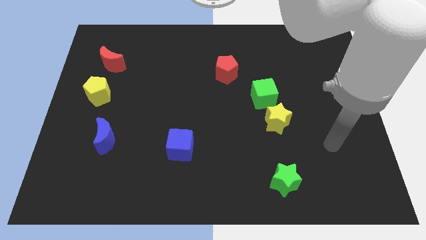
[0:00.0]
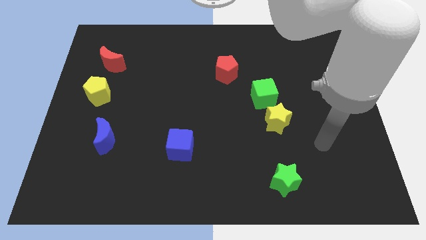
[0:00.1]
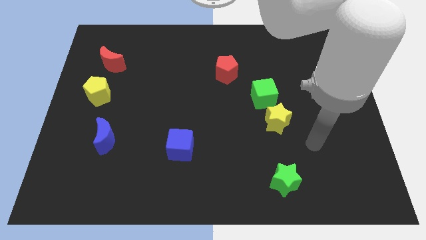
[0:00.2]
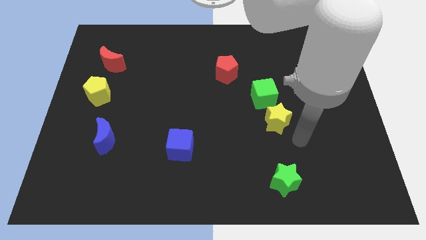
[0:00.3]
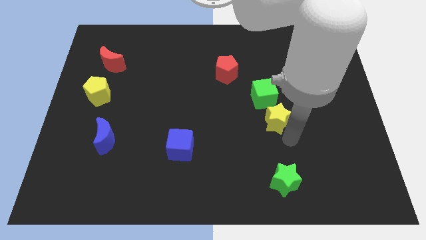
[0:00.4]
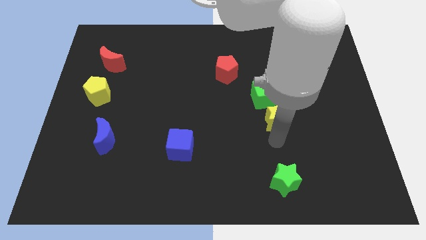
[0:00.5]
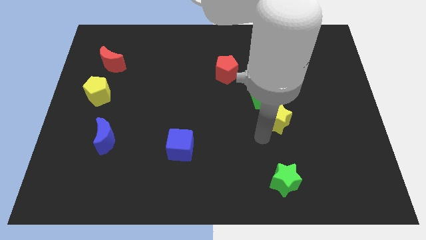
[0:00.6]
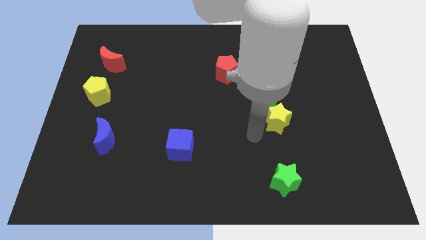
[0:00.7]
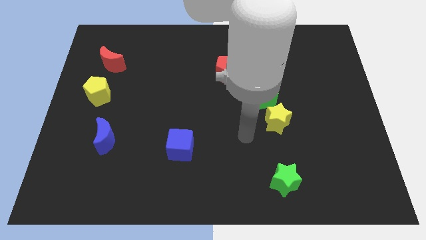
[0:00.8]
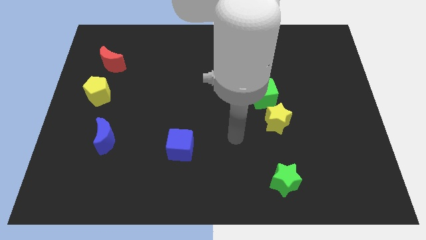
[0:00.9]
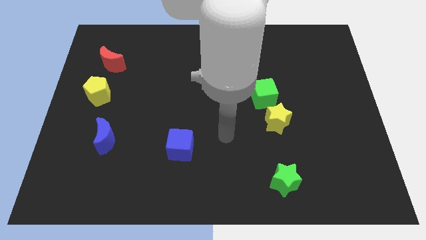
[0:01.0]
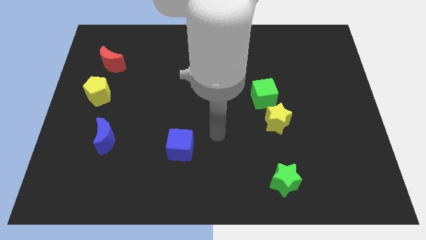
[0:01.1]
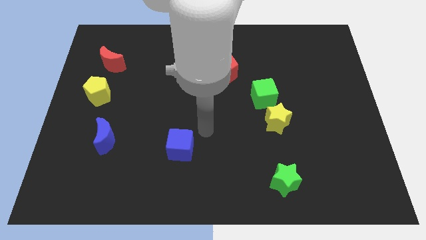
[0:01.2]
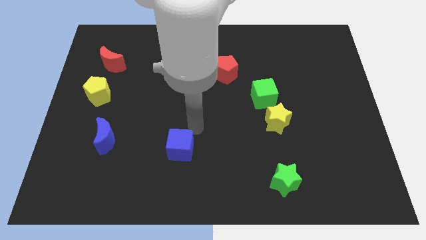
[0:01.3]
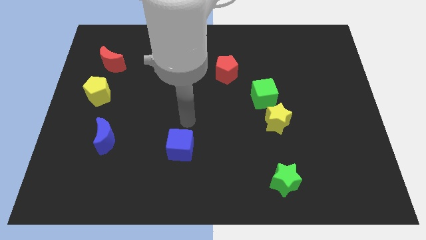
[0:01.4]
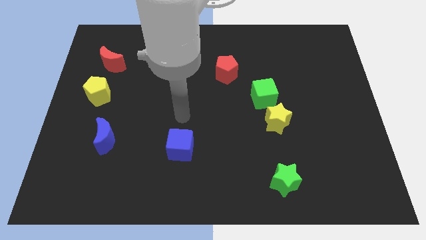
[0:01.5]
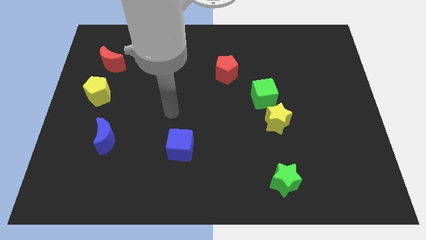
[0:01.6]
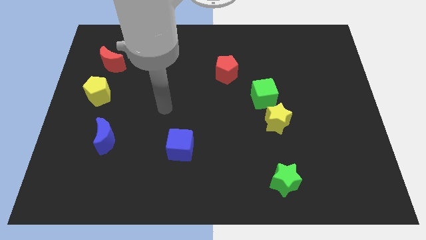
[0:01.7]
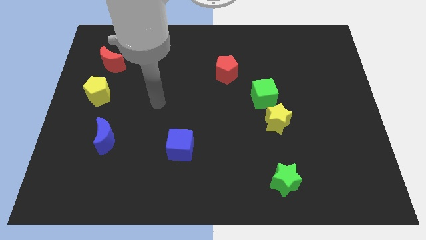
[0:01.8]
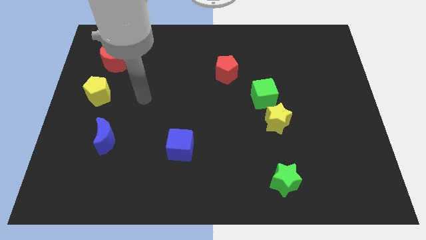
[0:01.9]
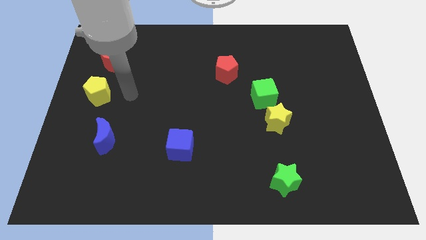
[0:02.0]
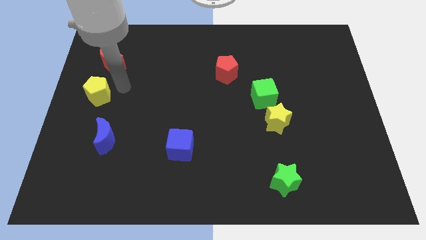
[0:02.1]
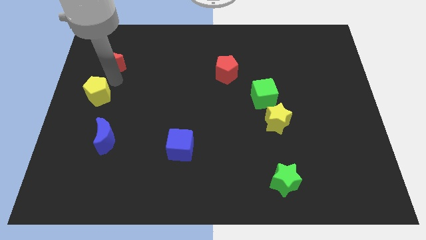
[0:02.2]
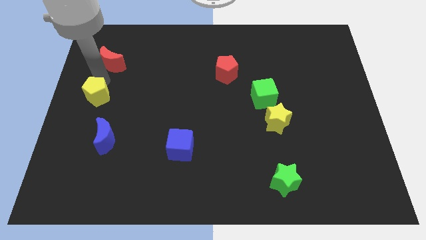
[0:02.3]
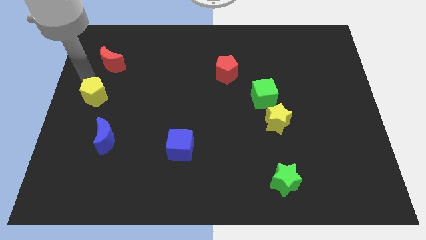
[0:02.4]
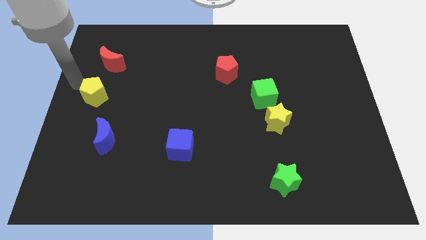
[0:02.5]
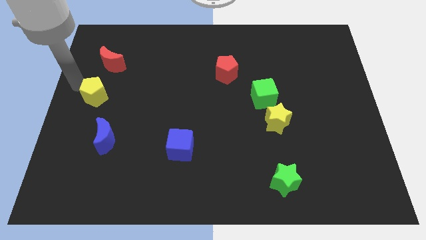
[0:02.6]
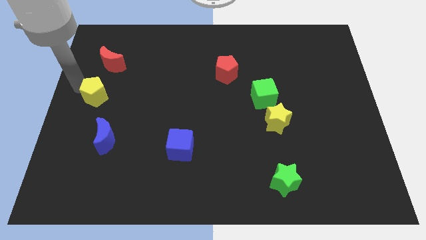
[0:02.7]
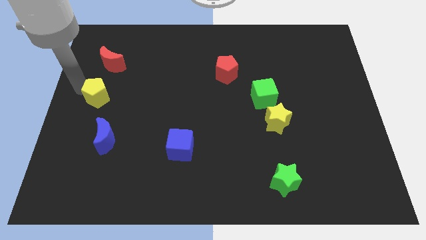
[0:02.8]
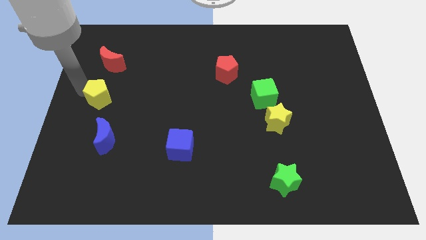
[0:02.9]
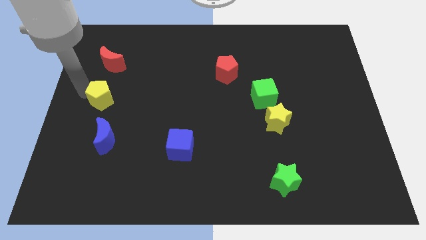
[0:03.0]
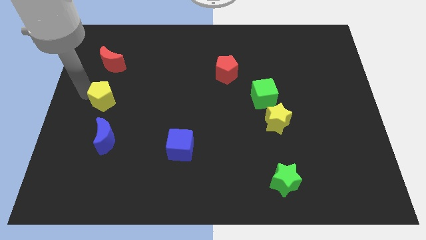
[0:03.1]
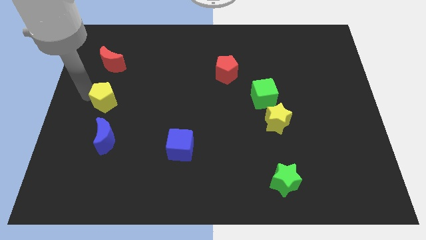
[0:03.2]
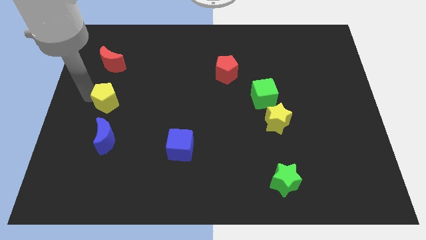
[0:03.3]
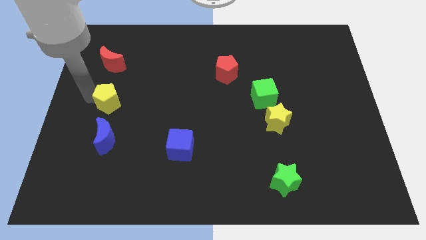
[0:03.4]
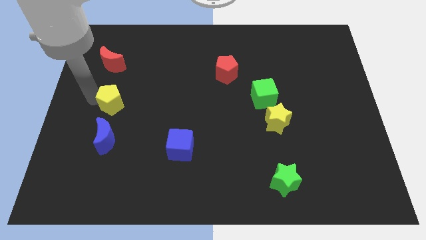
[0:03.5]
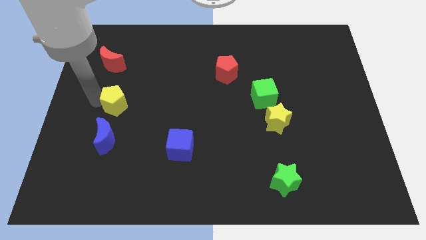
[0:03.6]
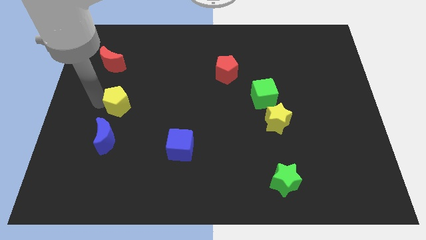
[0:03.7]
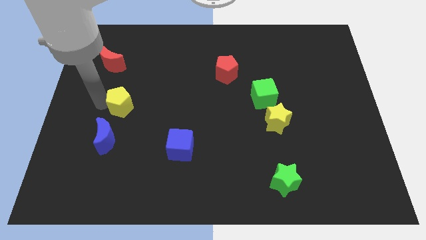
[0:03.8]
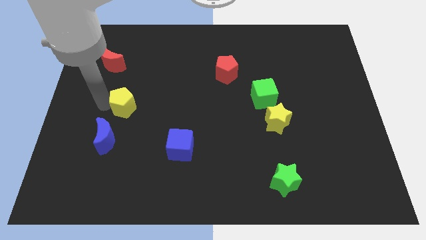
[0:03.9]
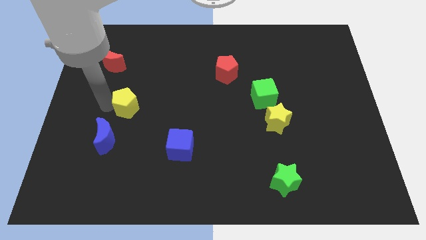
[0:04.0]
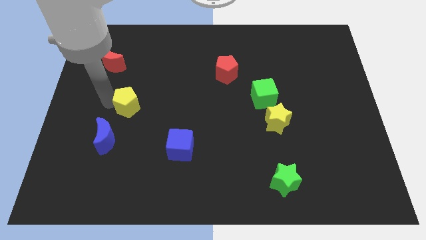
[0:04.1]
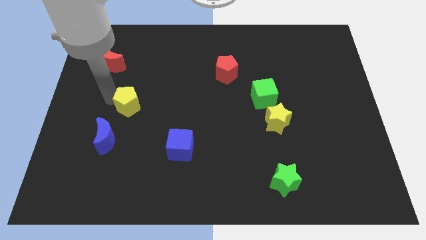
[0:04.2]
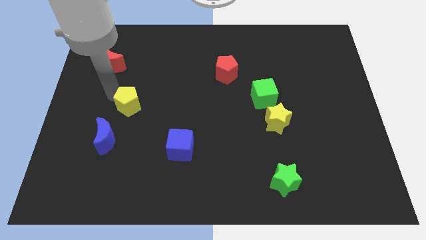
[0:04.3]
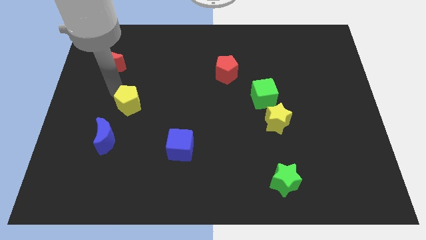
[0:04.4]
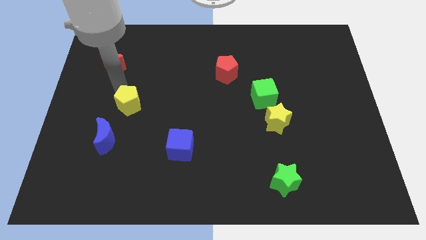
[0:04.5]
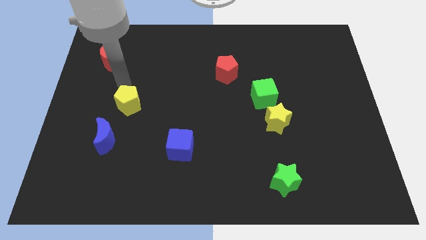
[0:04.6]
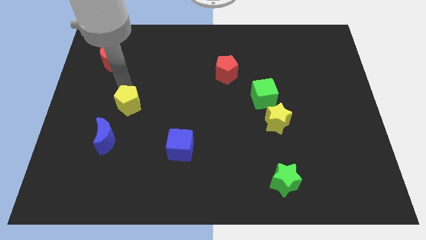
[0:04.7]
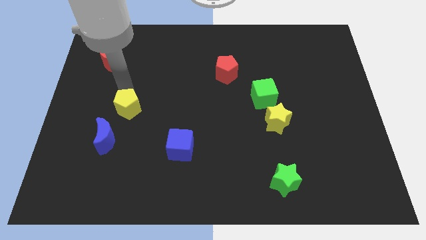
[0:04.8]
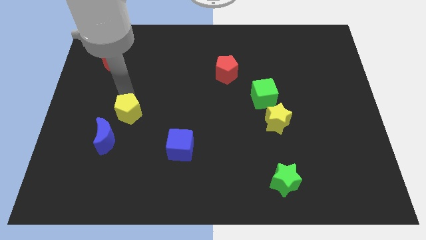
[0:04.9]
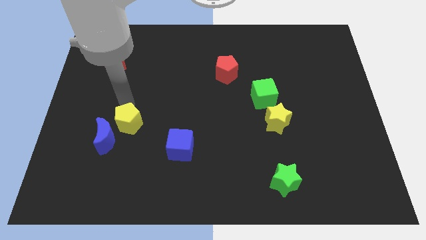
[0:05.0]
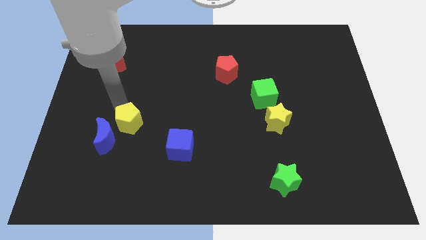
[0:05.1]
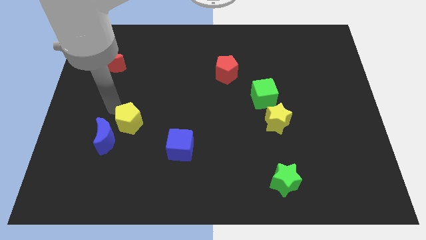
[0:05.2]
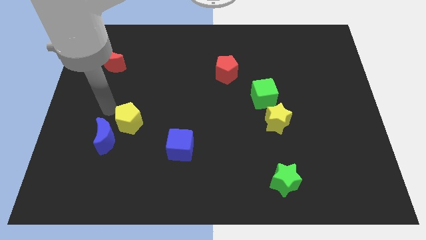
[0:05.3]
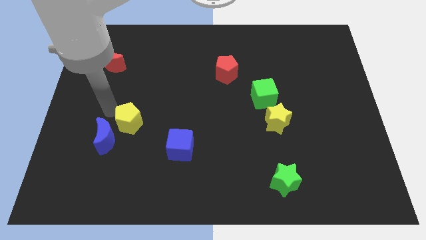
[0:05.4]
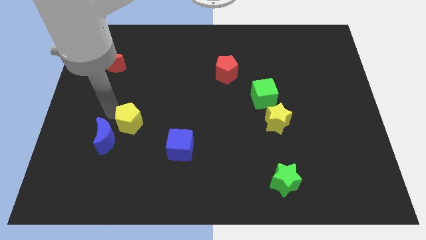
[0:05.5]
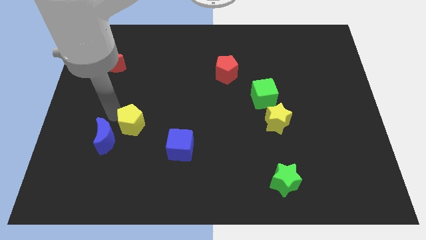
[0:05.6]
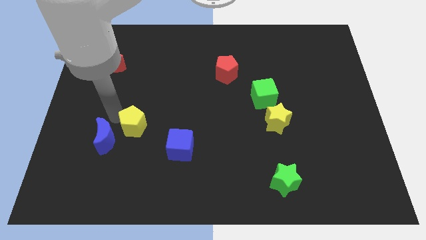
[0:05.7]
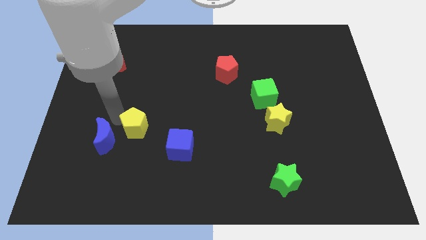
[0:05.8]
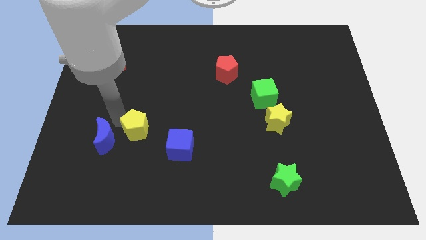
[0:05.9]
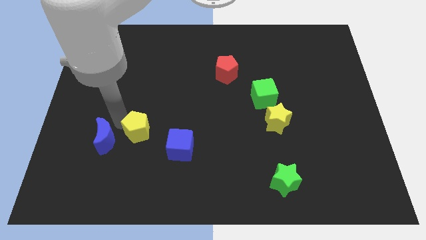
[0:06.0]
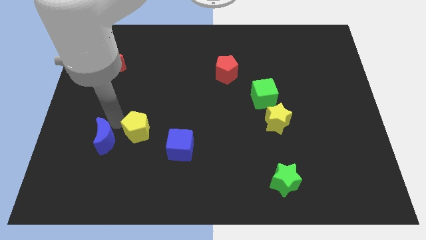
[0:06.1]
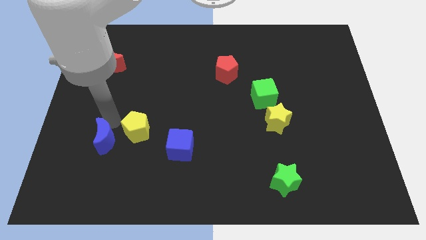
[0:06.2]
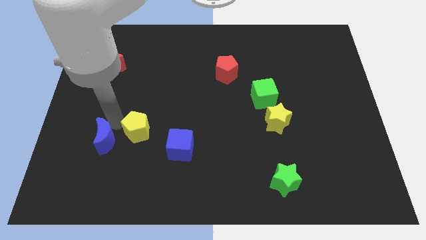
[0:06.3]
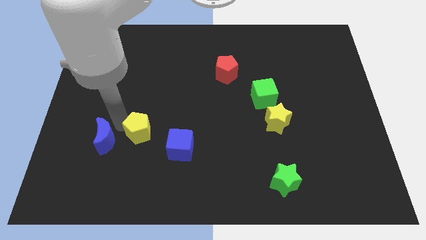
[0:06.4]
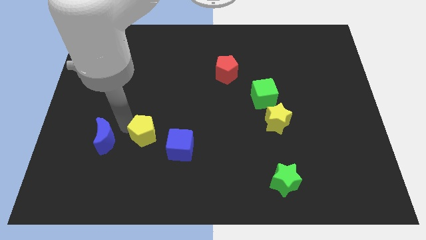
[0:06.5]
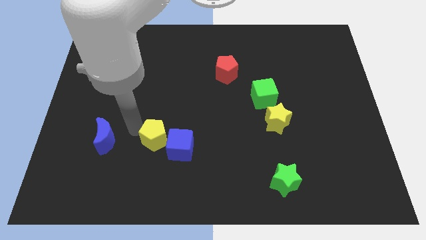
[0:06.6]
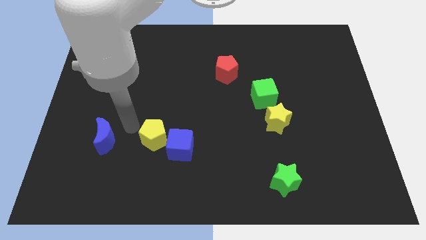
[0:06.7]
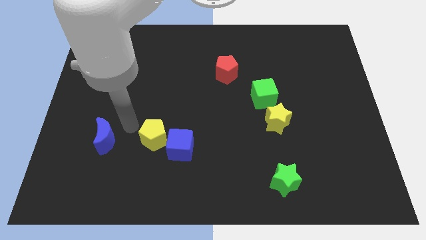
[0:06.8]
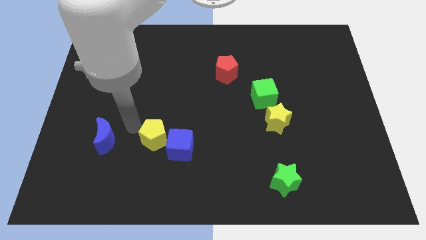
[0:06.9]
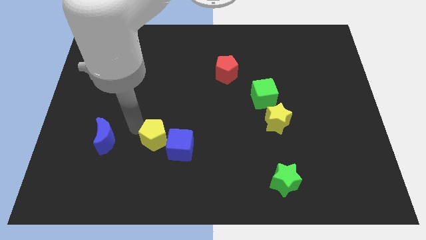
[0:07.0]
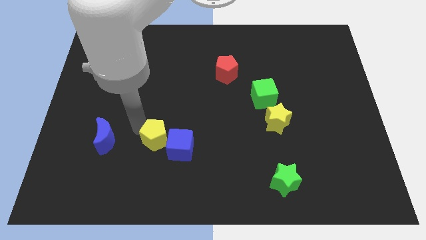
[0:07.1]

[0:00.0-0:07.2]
move the yellow pentagon next to the blue cube

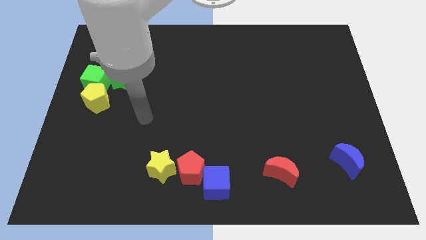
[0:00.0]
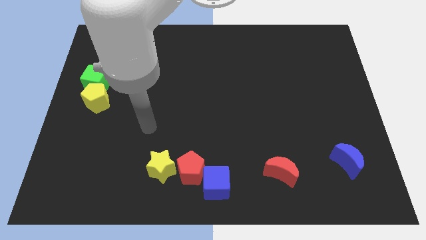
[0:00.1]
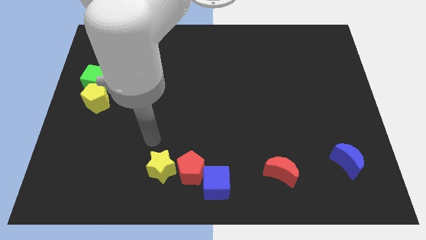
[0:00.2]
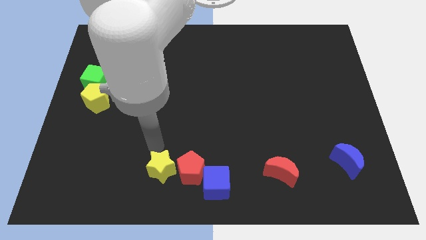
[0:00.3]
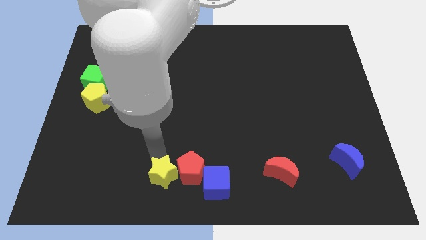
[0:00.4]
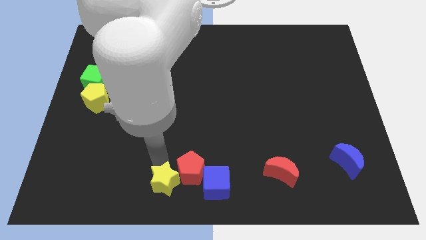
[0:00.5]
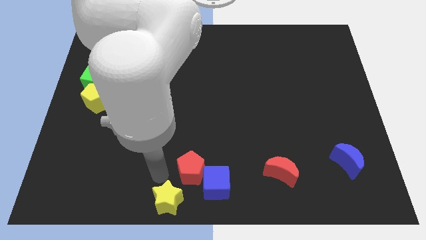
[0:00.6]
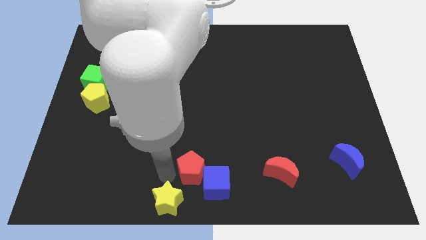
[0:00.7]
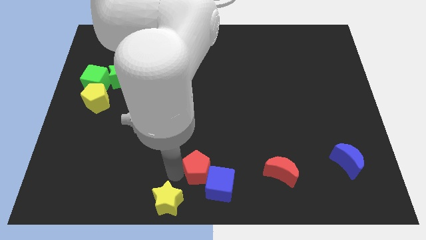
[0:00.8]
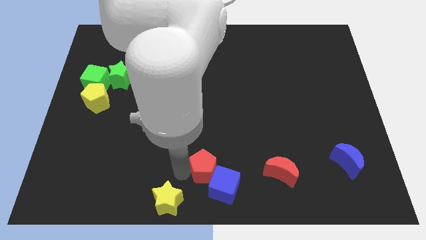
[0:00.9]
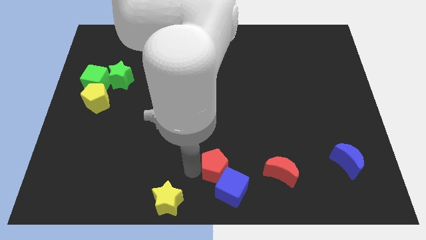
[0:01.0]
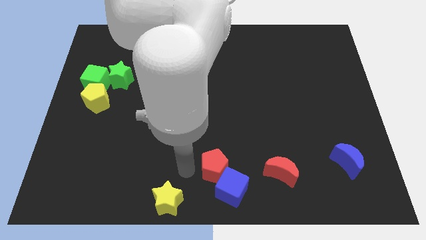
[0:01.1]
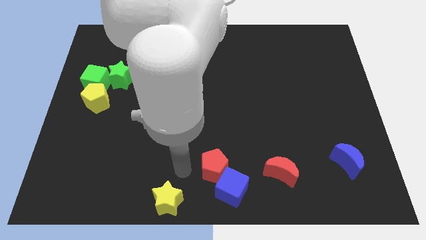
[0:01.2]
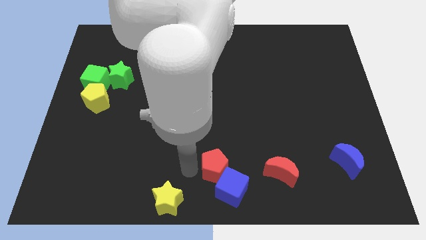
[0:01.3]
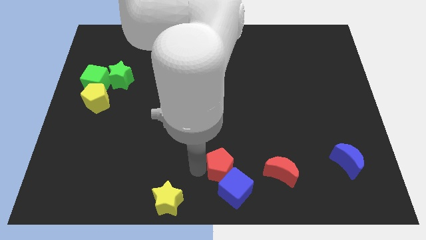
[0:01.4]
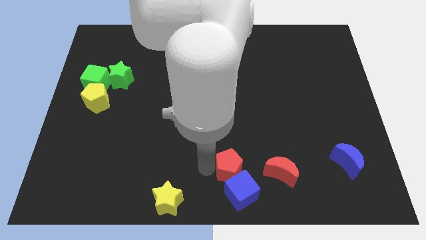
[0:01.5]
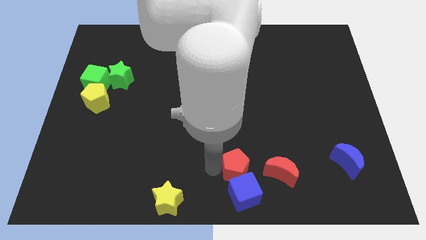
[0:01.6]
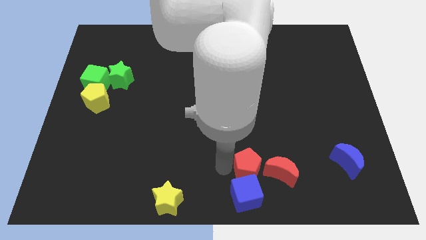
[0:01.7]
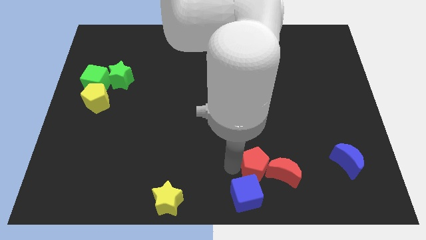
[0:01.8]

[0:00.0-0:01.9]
push the red pentagon next to the red moon
